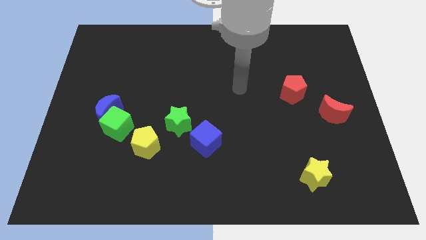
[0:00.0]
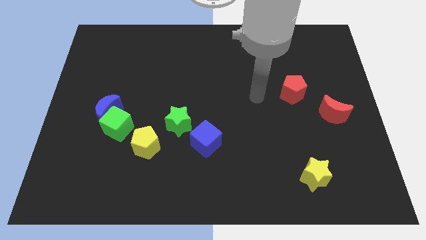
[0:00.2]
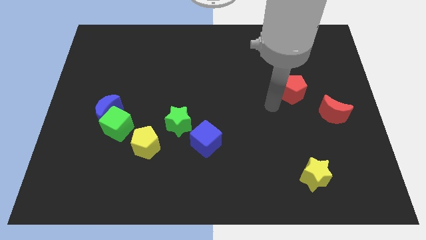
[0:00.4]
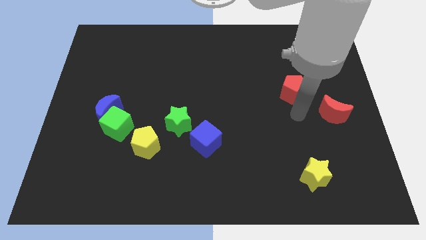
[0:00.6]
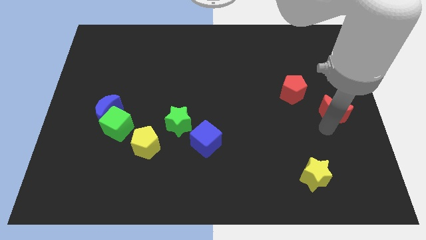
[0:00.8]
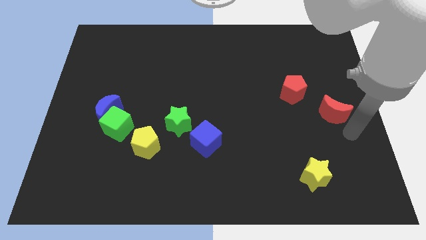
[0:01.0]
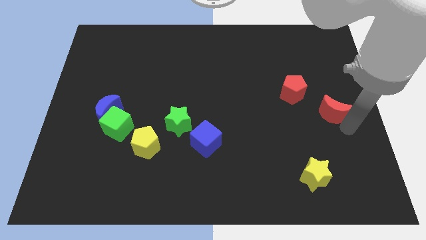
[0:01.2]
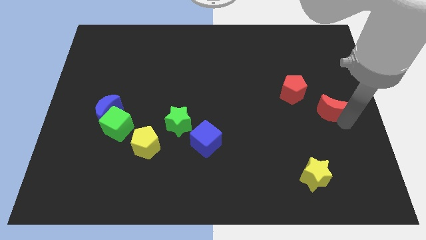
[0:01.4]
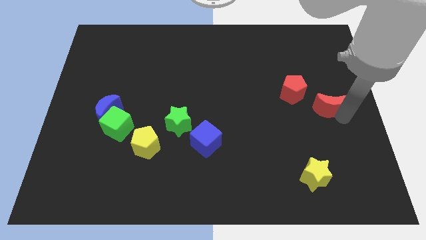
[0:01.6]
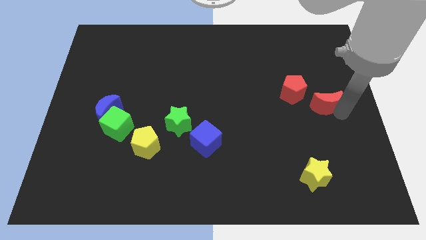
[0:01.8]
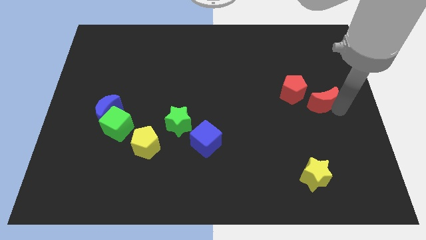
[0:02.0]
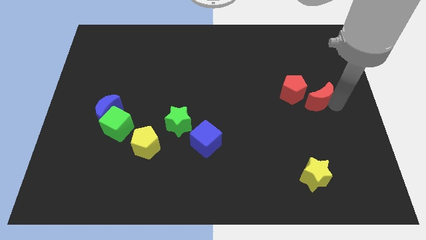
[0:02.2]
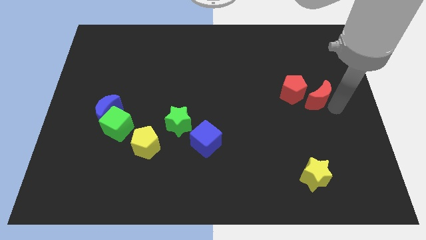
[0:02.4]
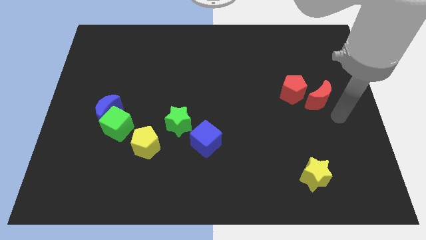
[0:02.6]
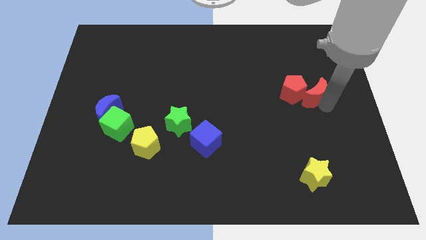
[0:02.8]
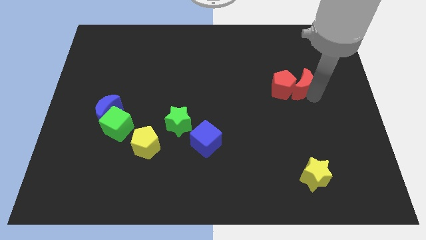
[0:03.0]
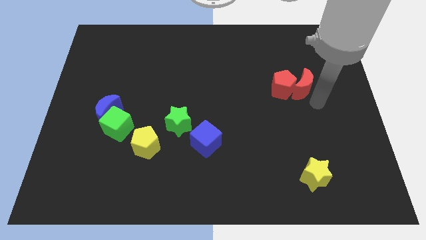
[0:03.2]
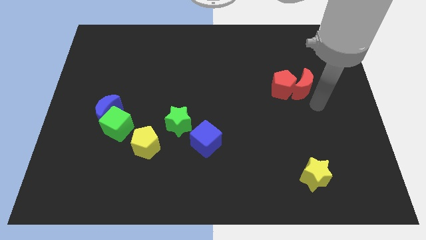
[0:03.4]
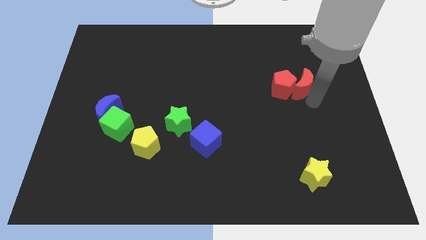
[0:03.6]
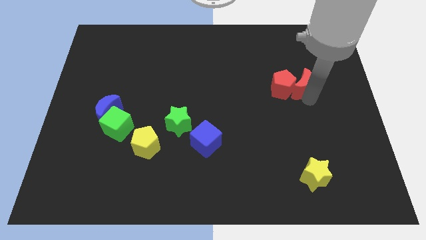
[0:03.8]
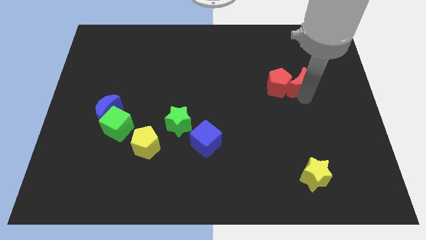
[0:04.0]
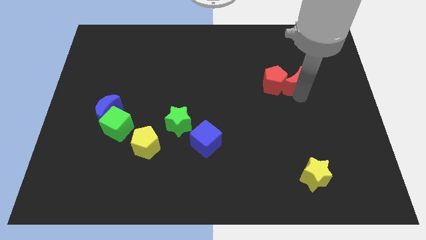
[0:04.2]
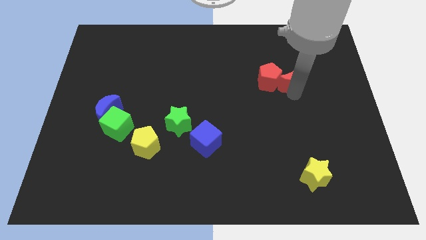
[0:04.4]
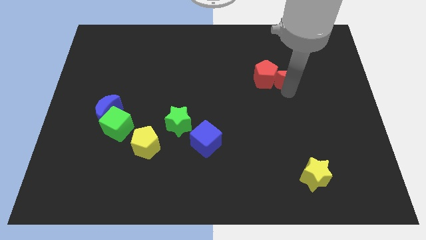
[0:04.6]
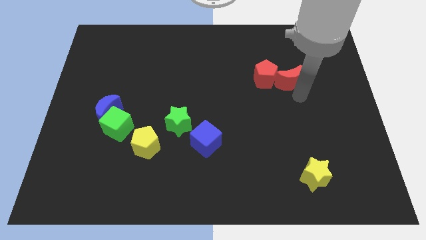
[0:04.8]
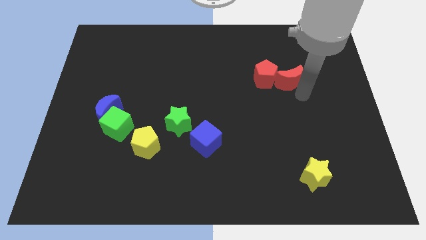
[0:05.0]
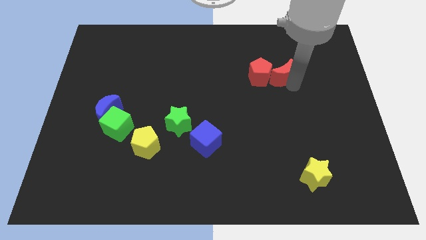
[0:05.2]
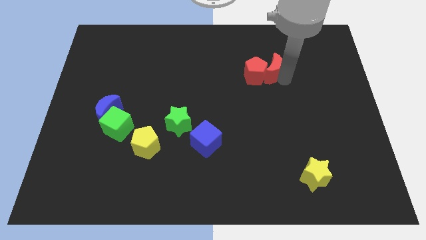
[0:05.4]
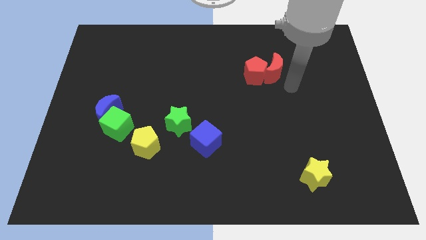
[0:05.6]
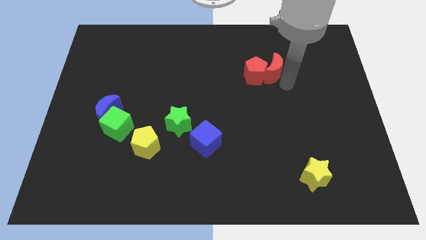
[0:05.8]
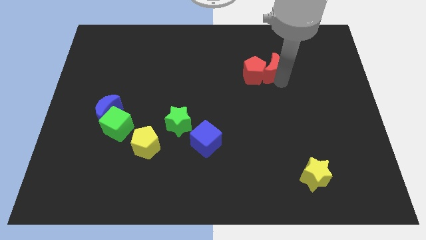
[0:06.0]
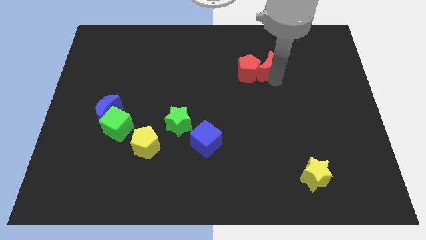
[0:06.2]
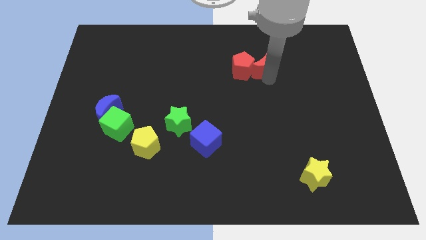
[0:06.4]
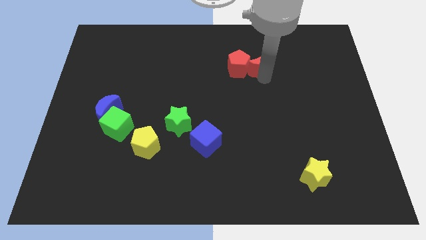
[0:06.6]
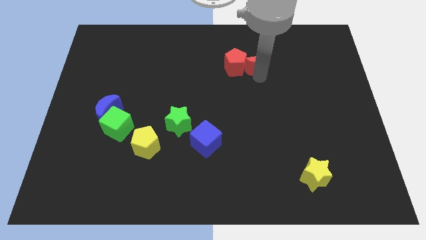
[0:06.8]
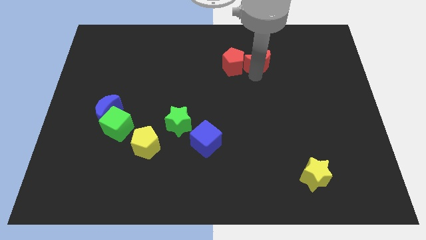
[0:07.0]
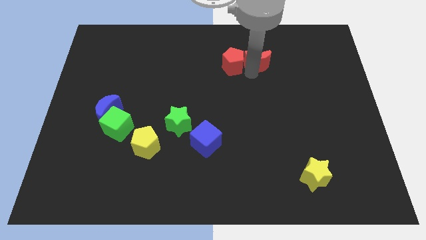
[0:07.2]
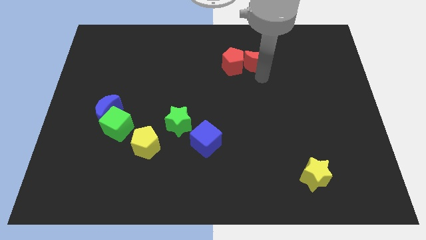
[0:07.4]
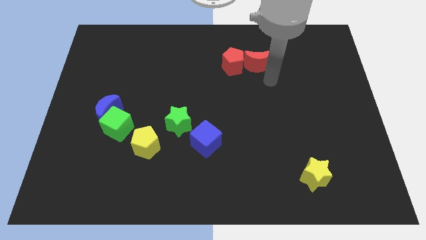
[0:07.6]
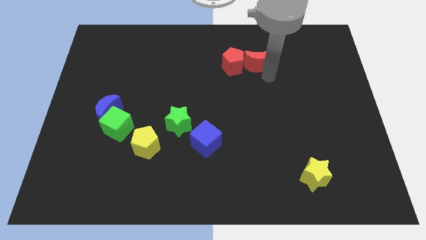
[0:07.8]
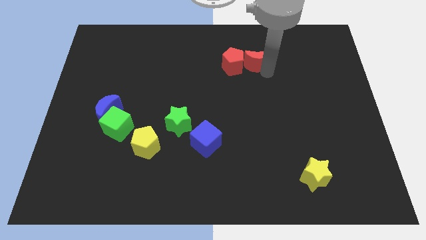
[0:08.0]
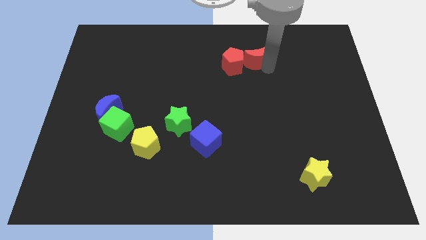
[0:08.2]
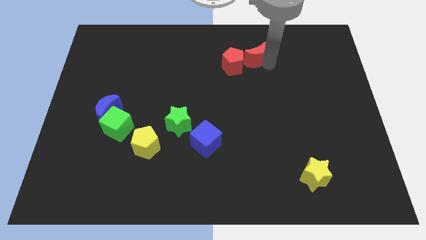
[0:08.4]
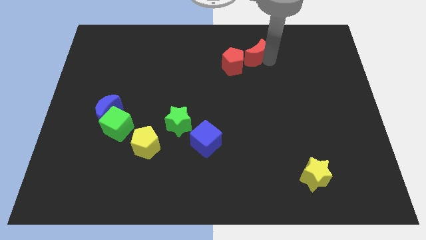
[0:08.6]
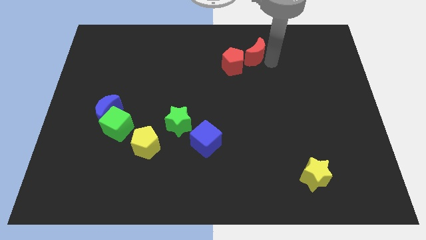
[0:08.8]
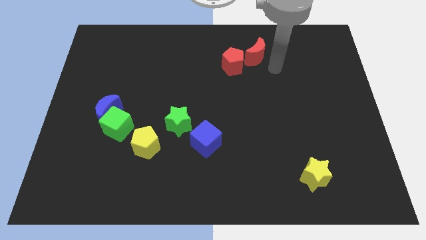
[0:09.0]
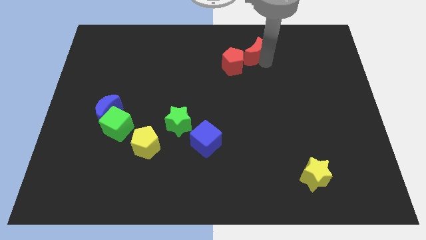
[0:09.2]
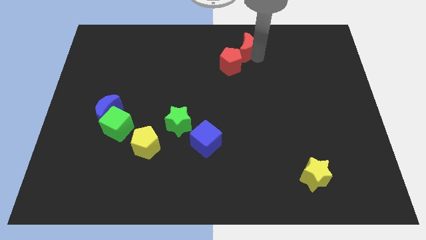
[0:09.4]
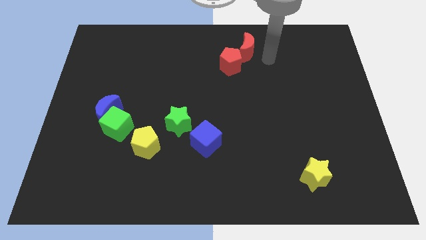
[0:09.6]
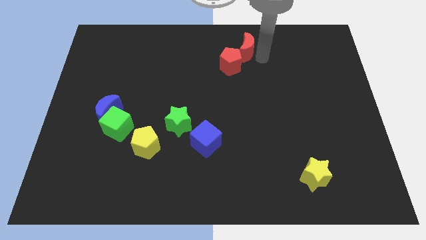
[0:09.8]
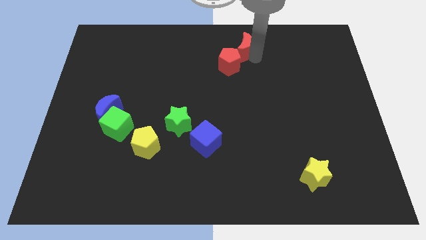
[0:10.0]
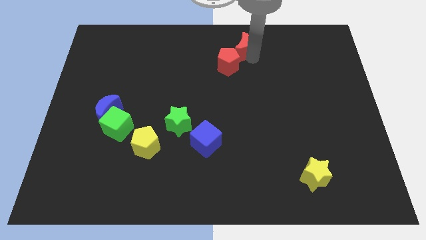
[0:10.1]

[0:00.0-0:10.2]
push the red moon to the towards your base

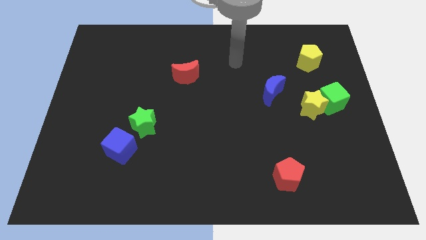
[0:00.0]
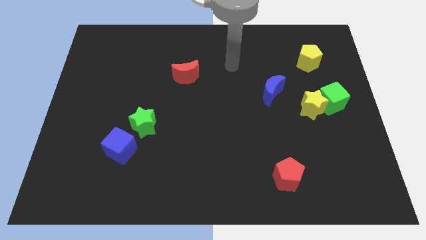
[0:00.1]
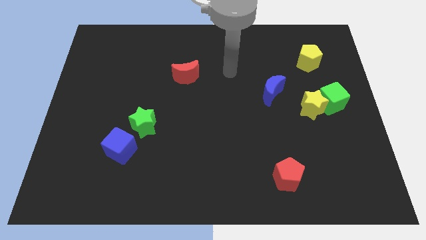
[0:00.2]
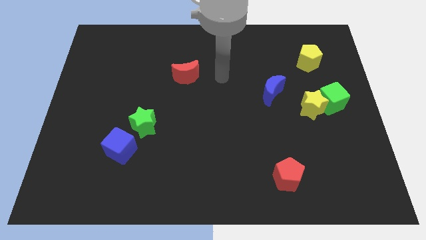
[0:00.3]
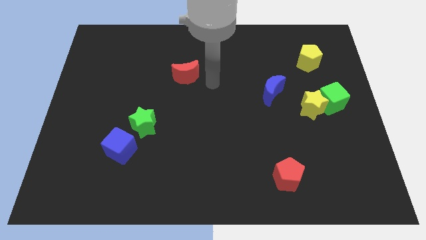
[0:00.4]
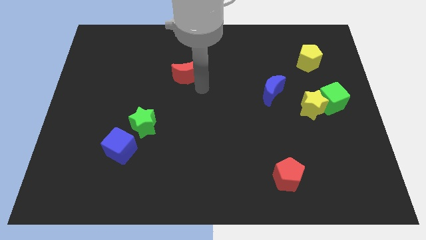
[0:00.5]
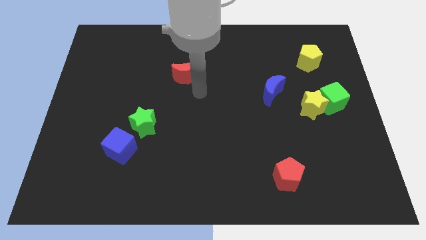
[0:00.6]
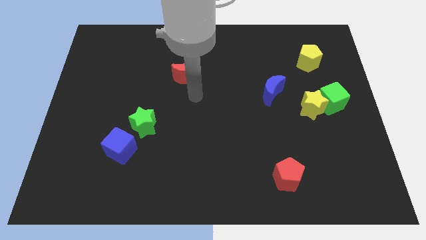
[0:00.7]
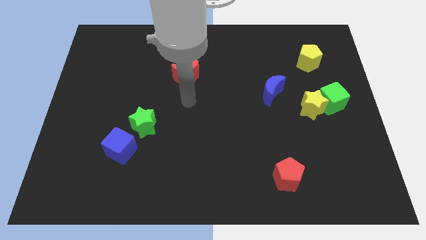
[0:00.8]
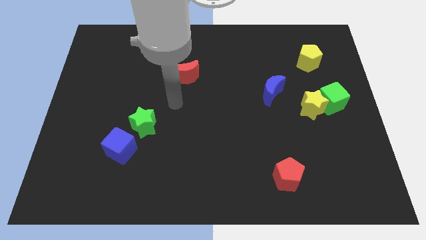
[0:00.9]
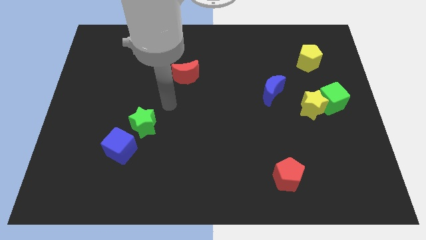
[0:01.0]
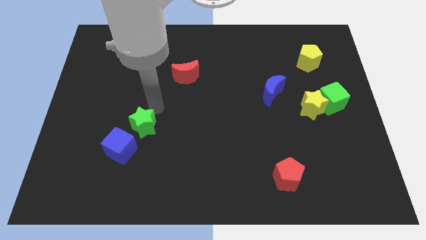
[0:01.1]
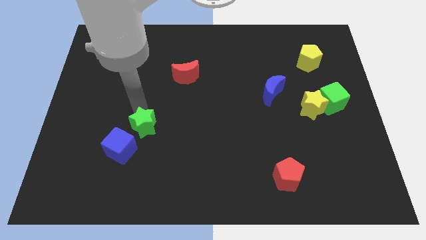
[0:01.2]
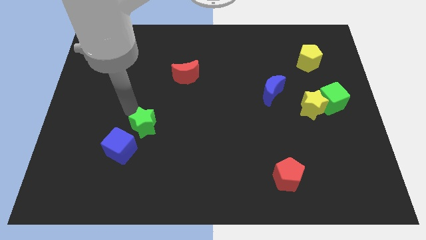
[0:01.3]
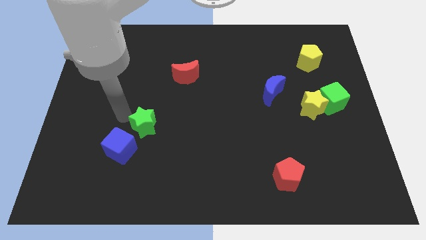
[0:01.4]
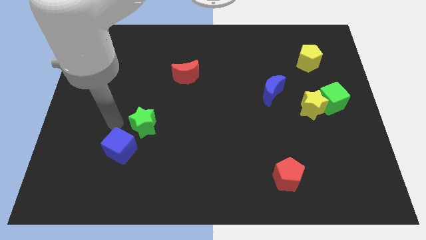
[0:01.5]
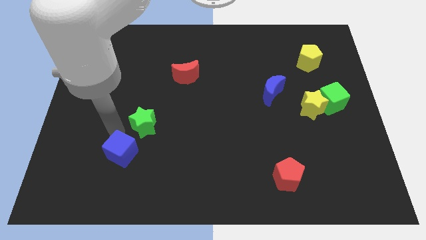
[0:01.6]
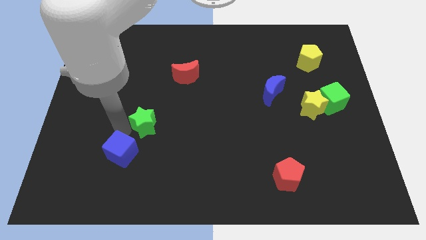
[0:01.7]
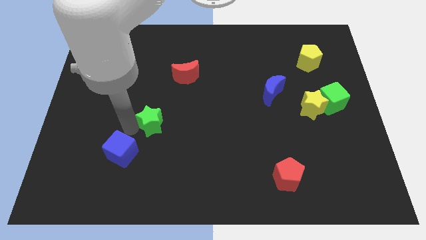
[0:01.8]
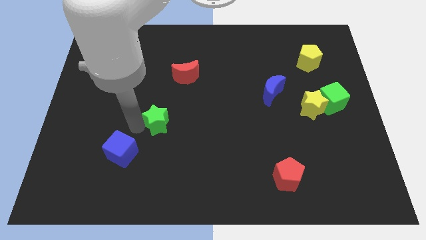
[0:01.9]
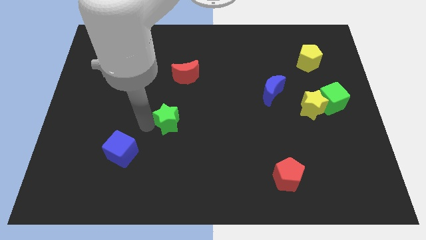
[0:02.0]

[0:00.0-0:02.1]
move the green star to the middle of the board
